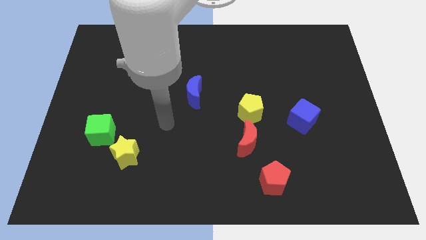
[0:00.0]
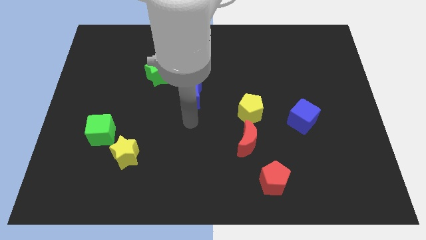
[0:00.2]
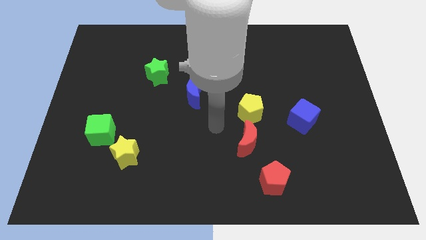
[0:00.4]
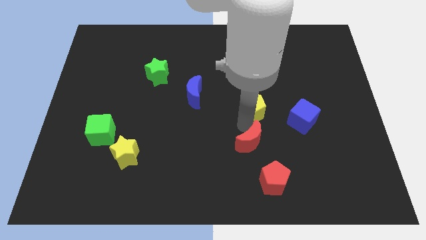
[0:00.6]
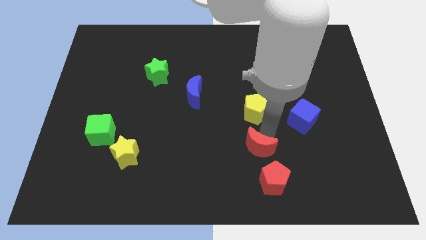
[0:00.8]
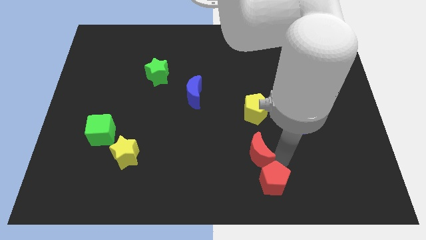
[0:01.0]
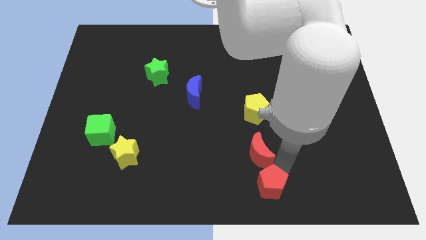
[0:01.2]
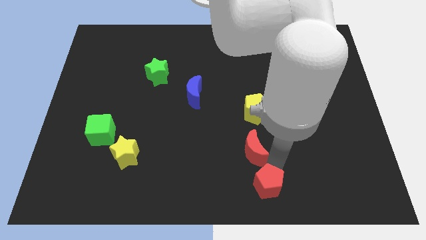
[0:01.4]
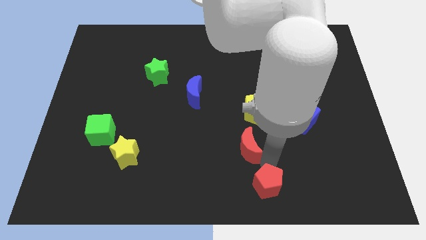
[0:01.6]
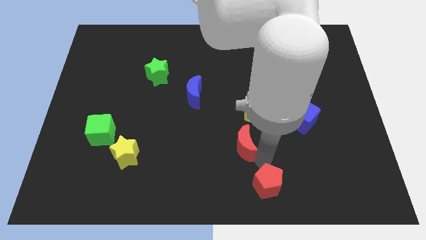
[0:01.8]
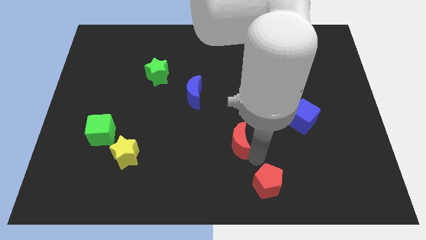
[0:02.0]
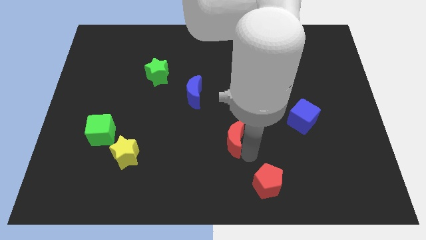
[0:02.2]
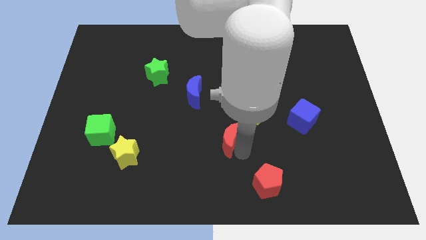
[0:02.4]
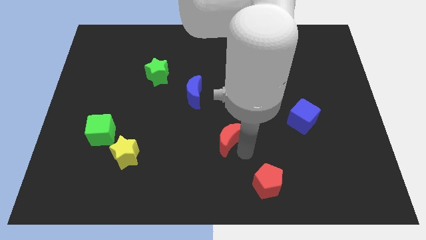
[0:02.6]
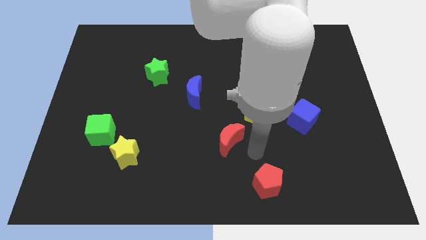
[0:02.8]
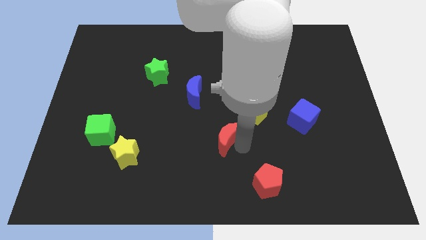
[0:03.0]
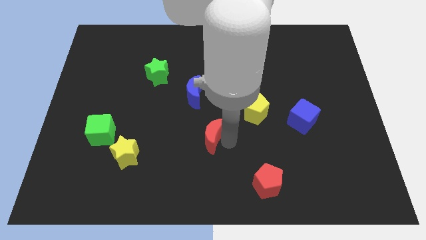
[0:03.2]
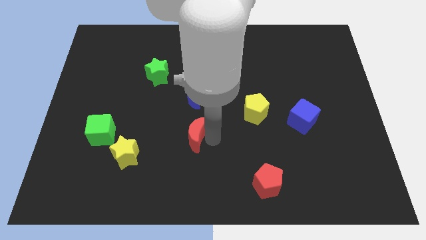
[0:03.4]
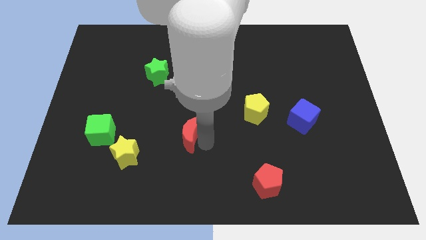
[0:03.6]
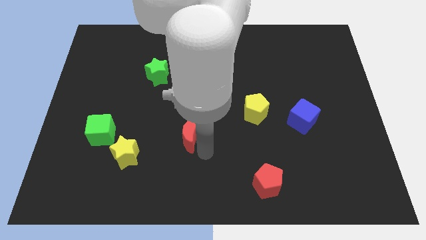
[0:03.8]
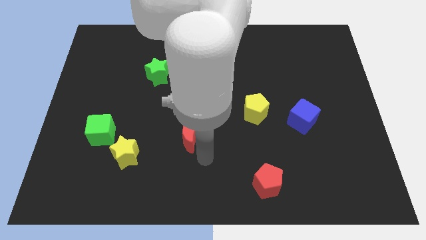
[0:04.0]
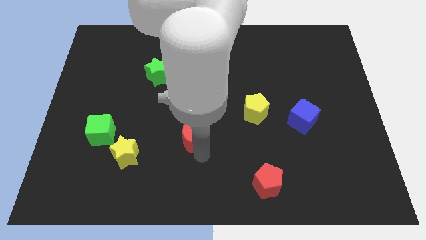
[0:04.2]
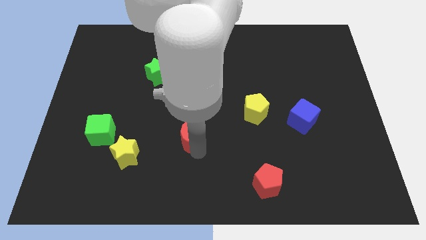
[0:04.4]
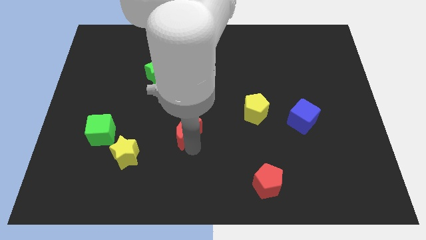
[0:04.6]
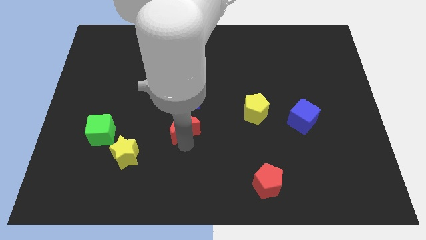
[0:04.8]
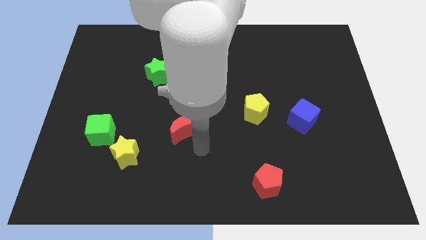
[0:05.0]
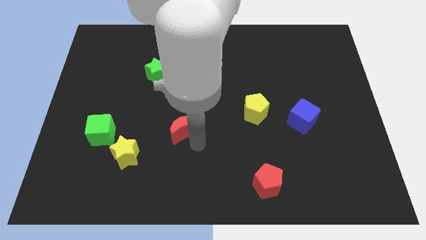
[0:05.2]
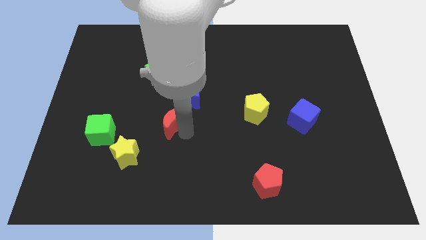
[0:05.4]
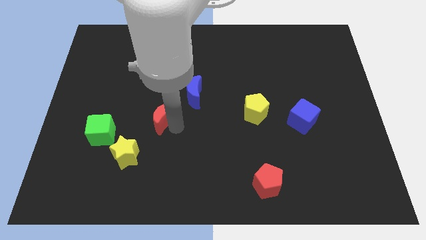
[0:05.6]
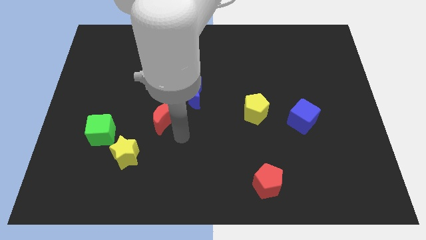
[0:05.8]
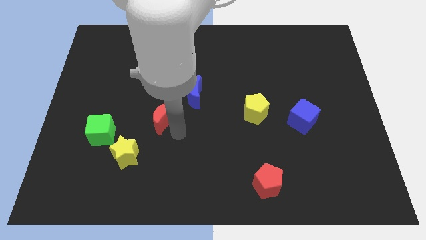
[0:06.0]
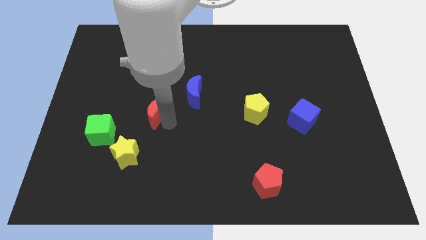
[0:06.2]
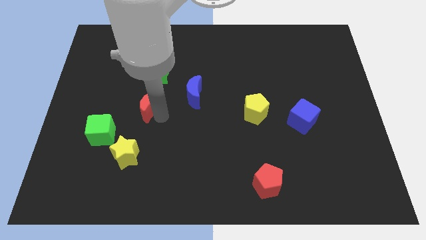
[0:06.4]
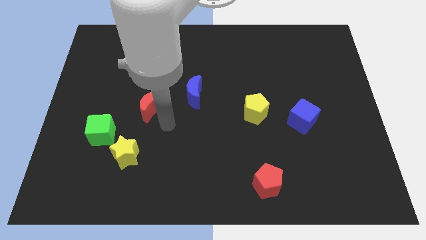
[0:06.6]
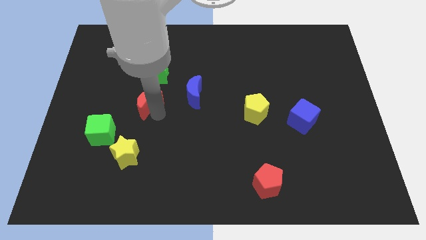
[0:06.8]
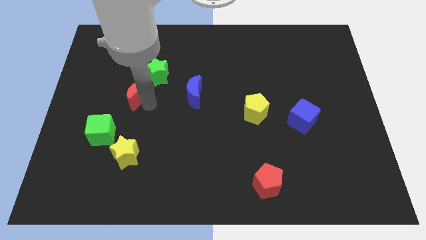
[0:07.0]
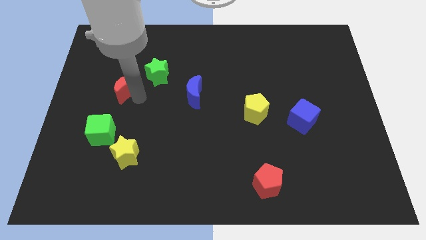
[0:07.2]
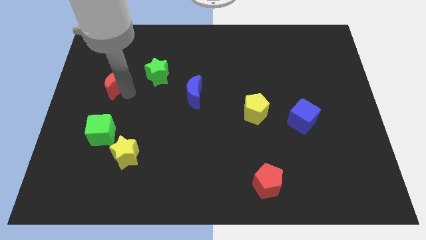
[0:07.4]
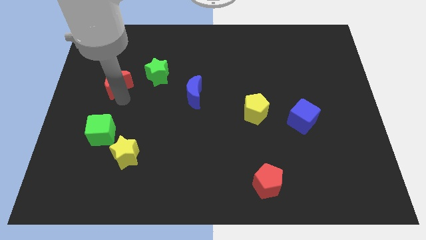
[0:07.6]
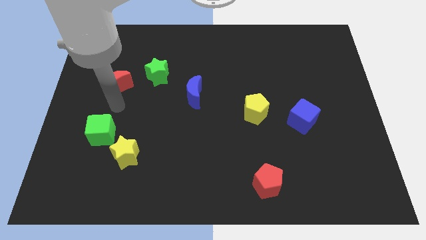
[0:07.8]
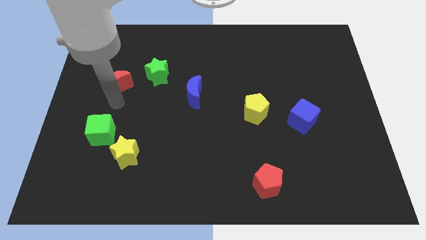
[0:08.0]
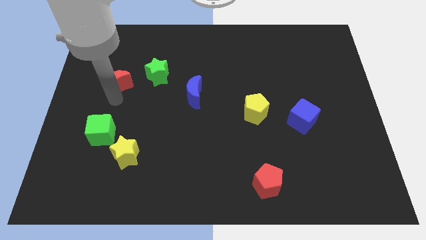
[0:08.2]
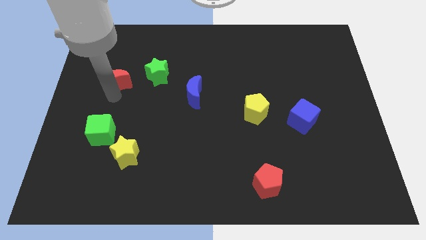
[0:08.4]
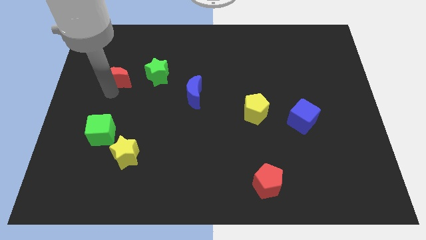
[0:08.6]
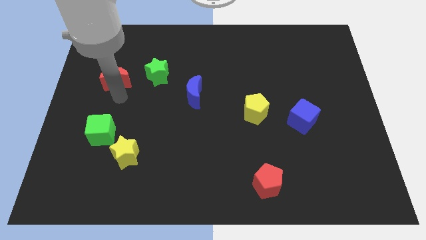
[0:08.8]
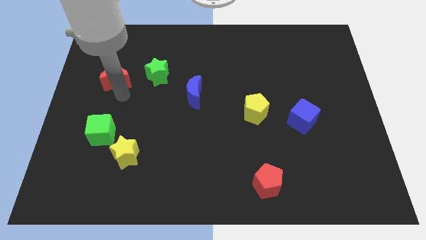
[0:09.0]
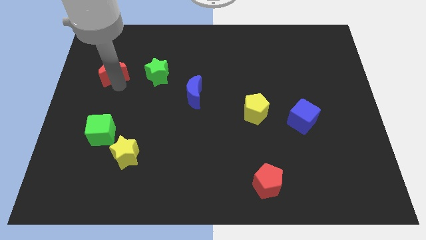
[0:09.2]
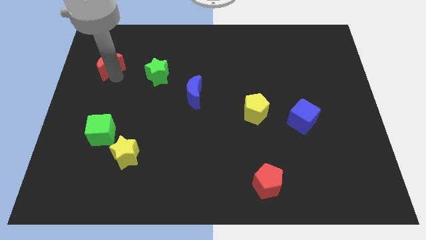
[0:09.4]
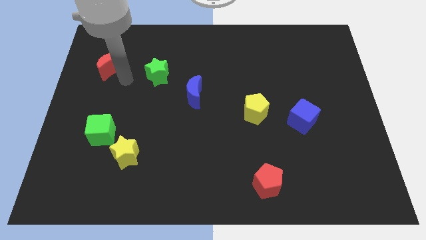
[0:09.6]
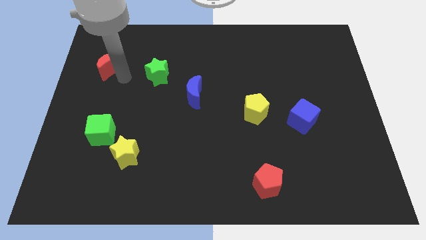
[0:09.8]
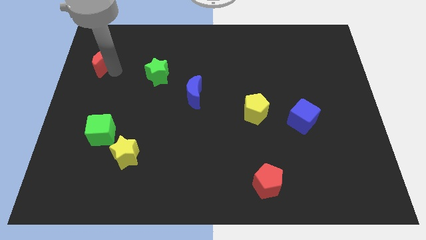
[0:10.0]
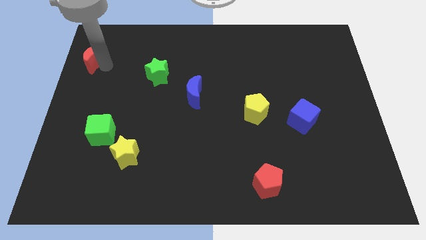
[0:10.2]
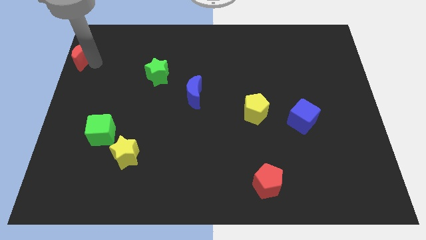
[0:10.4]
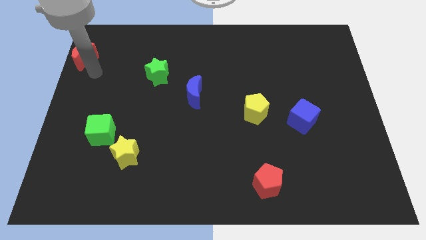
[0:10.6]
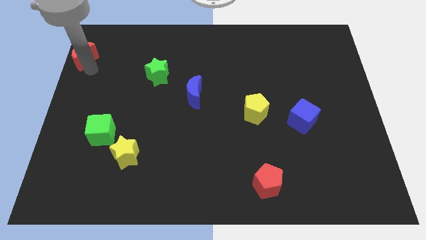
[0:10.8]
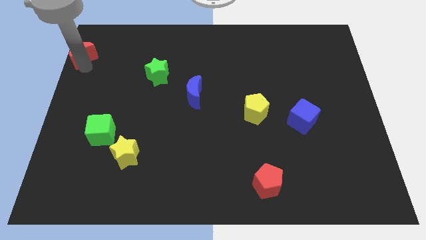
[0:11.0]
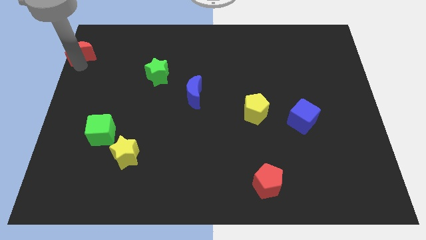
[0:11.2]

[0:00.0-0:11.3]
slide the red moon to the top left

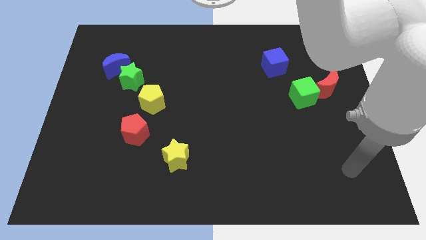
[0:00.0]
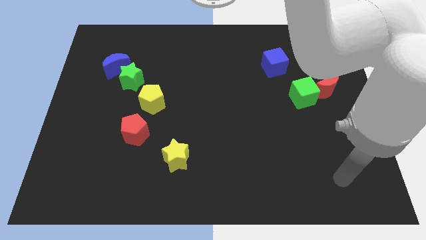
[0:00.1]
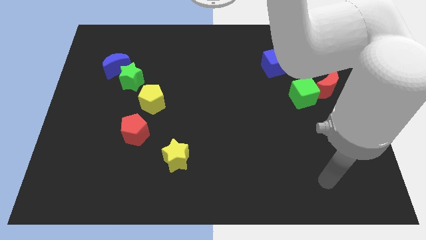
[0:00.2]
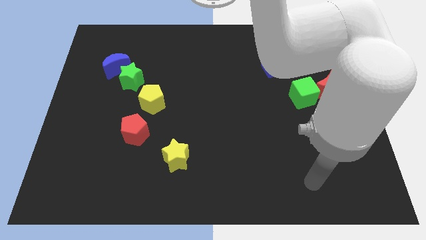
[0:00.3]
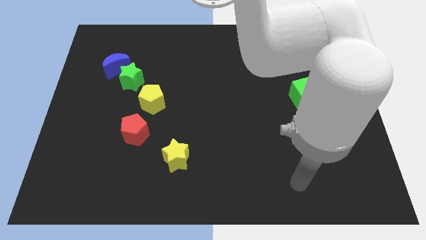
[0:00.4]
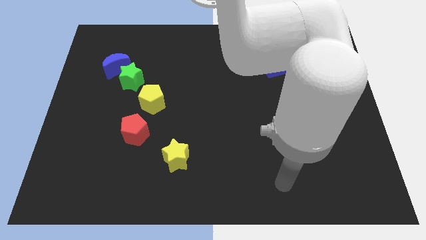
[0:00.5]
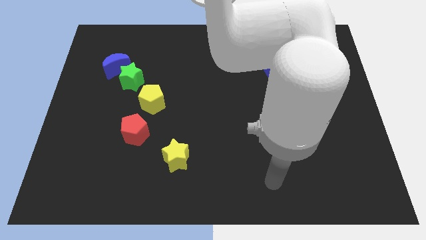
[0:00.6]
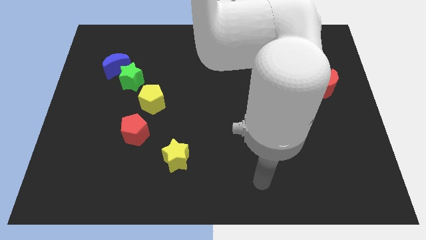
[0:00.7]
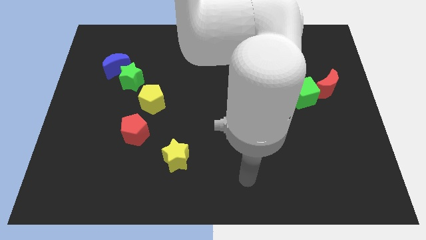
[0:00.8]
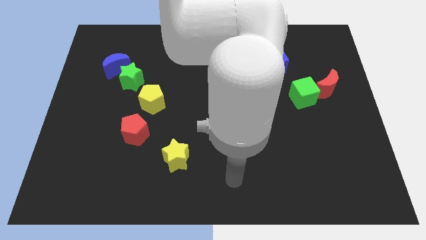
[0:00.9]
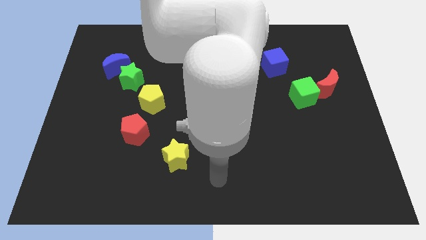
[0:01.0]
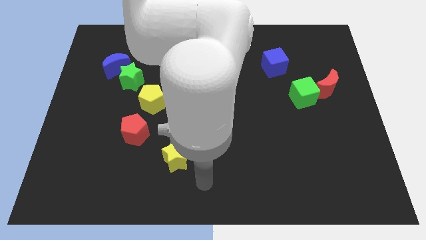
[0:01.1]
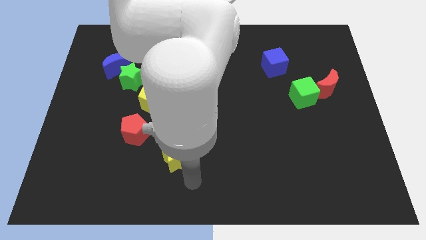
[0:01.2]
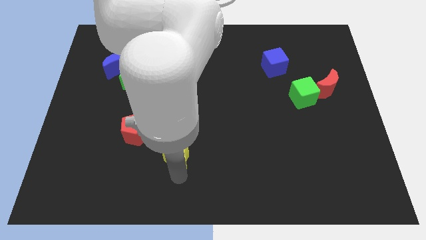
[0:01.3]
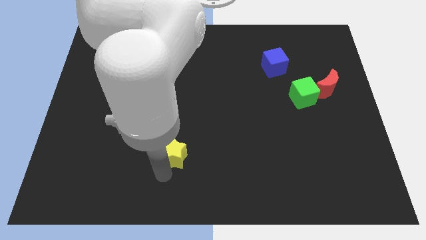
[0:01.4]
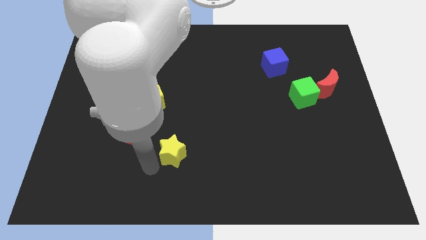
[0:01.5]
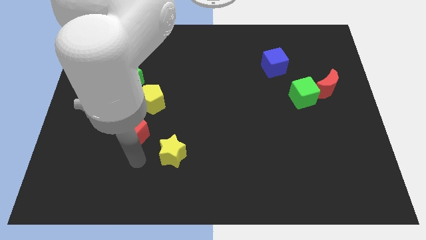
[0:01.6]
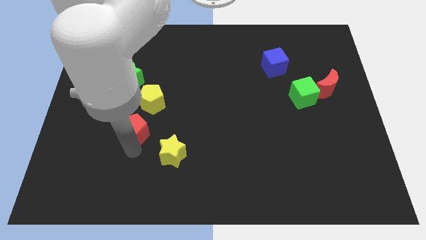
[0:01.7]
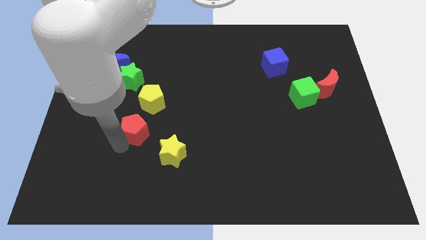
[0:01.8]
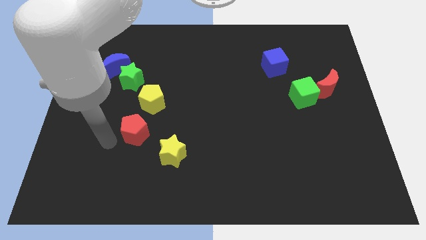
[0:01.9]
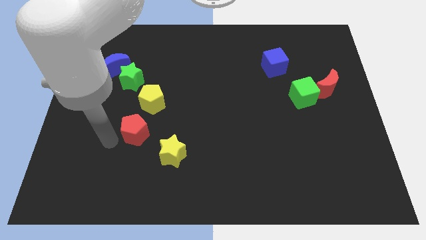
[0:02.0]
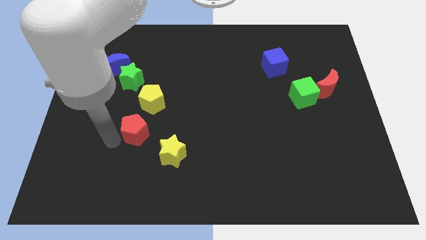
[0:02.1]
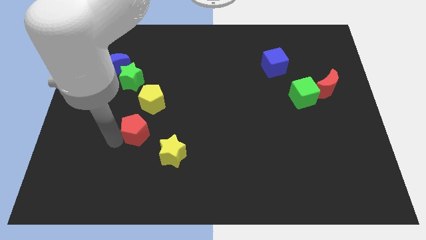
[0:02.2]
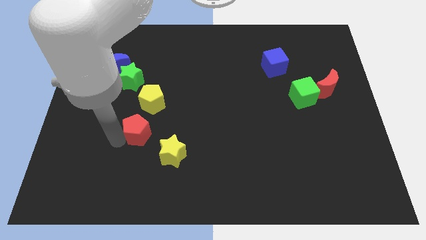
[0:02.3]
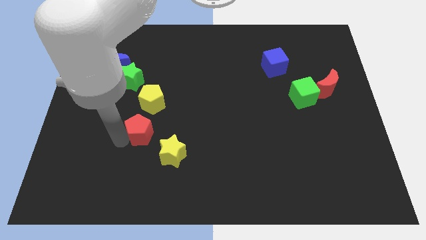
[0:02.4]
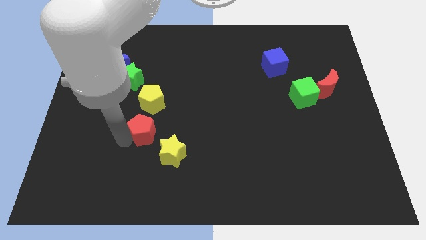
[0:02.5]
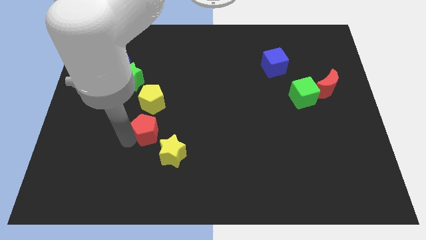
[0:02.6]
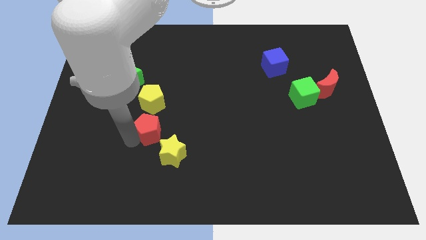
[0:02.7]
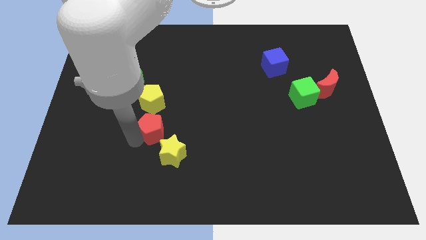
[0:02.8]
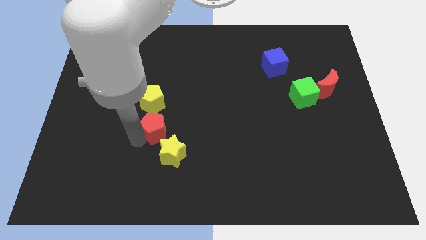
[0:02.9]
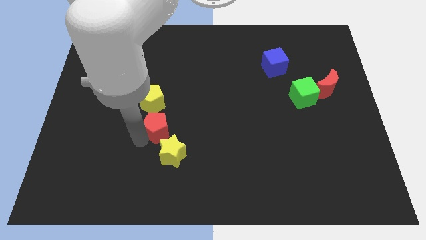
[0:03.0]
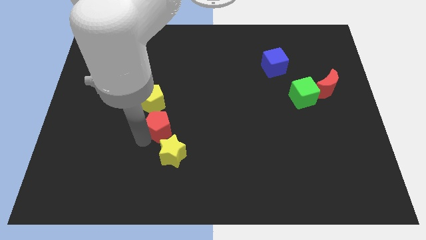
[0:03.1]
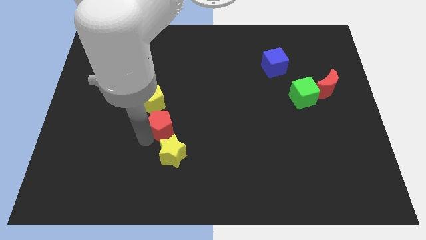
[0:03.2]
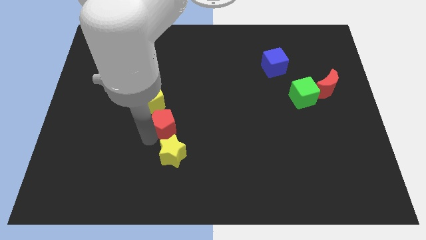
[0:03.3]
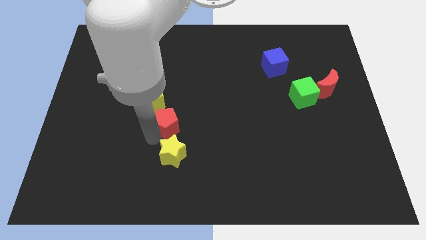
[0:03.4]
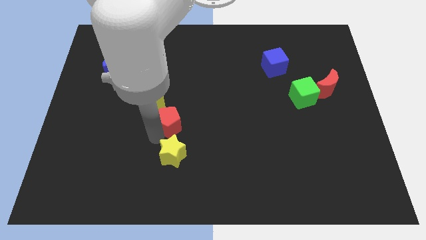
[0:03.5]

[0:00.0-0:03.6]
slide the red pentagon to the middle of the board
